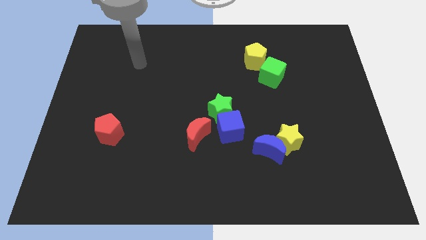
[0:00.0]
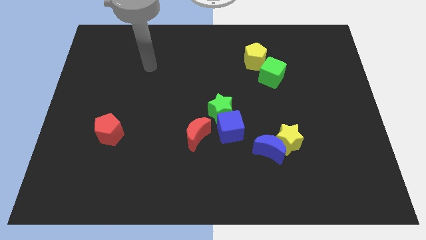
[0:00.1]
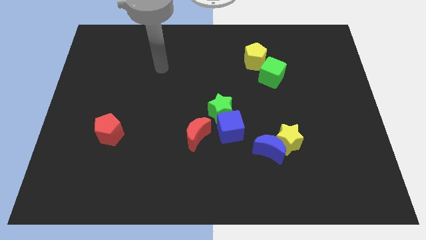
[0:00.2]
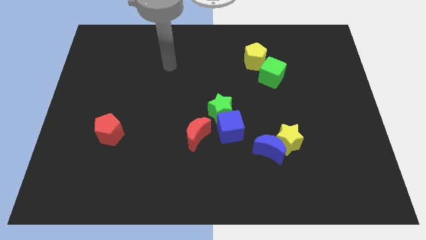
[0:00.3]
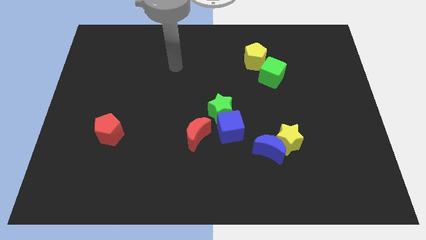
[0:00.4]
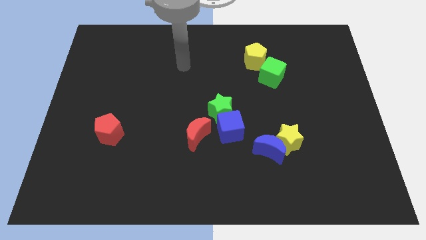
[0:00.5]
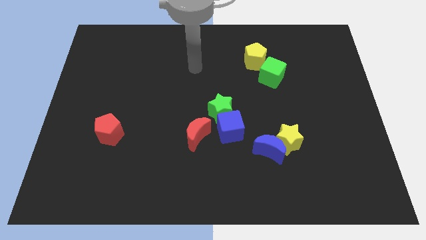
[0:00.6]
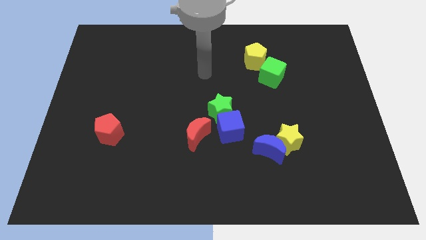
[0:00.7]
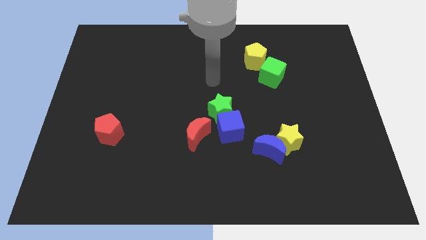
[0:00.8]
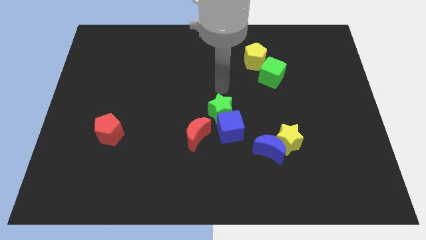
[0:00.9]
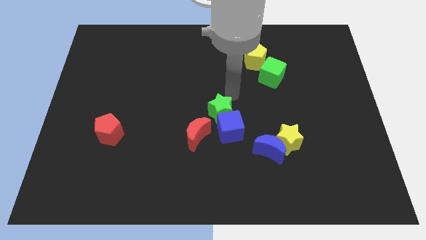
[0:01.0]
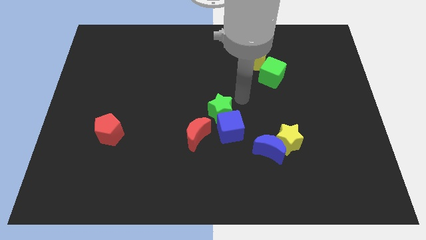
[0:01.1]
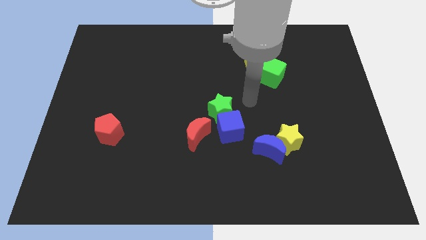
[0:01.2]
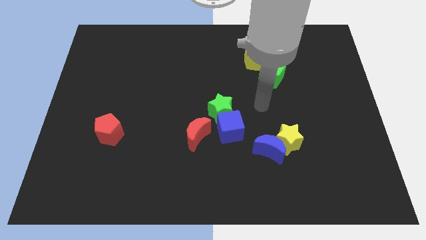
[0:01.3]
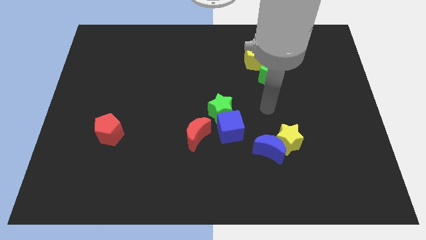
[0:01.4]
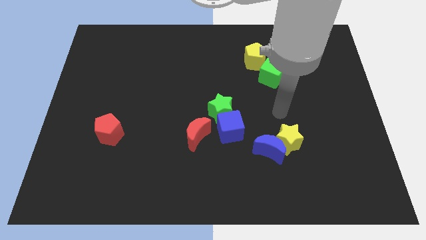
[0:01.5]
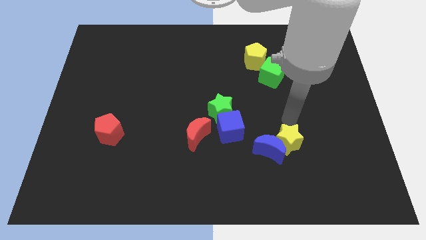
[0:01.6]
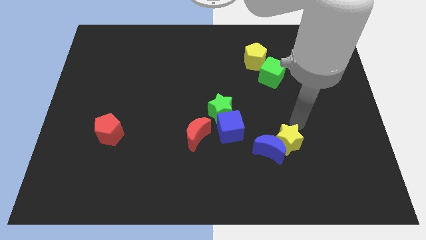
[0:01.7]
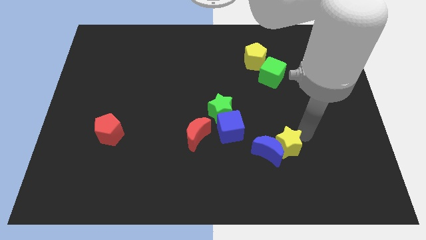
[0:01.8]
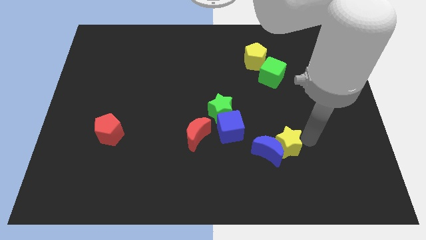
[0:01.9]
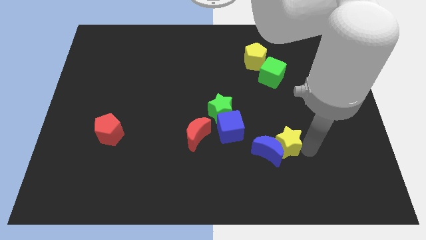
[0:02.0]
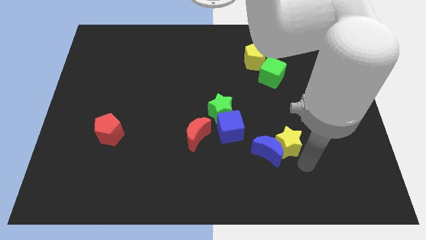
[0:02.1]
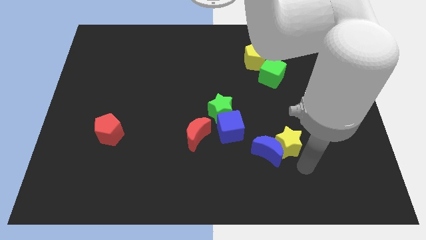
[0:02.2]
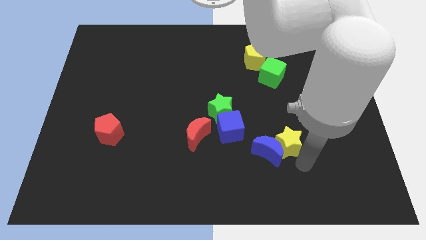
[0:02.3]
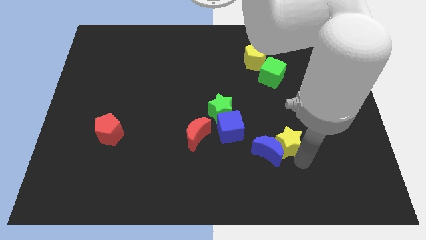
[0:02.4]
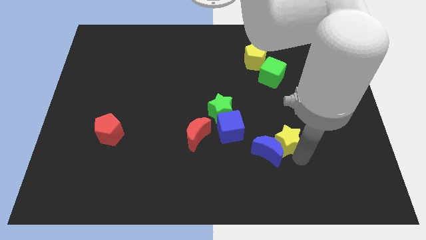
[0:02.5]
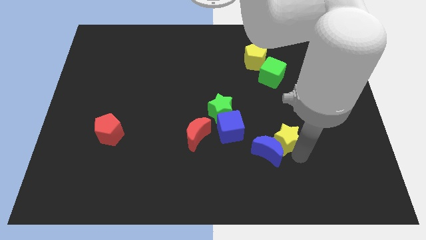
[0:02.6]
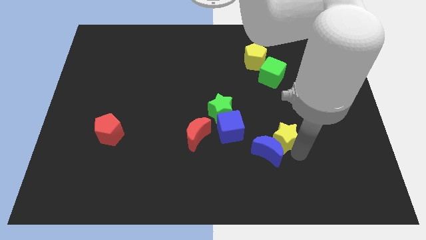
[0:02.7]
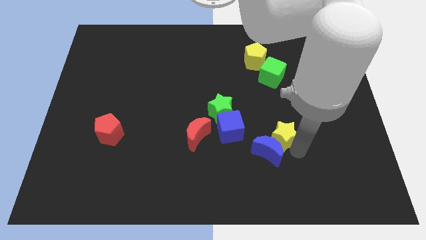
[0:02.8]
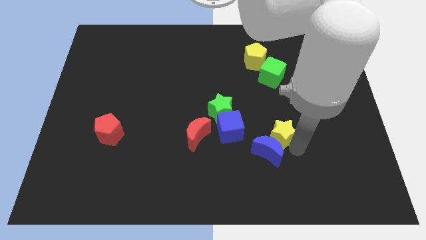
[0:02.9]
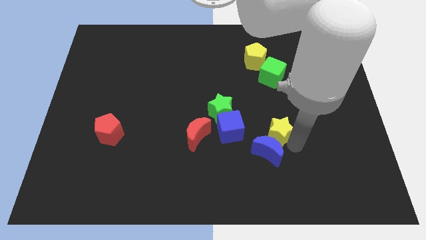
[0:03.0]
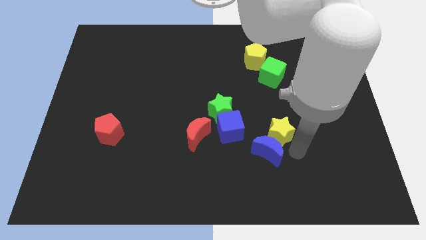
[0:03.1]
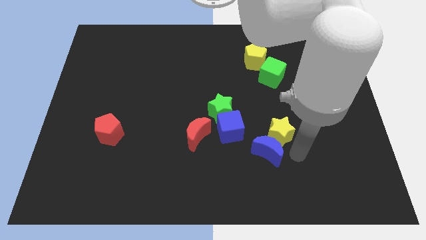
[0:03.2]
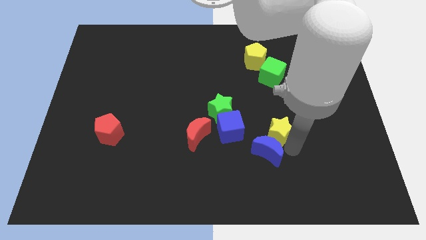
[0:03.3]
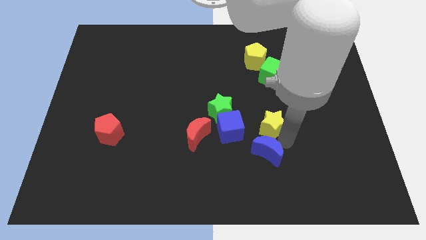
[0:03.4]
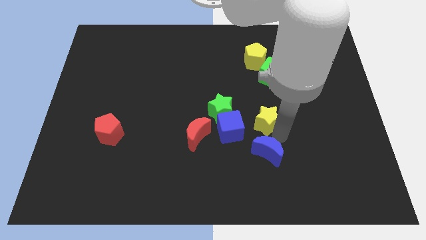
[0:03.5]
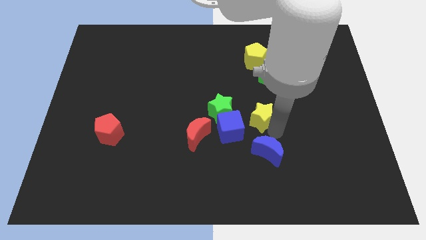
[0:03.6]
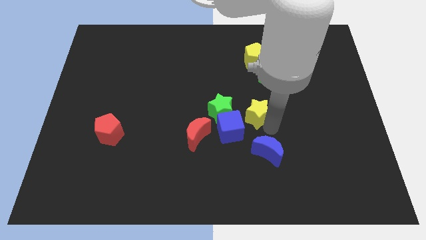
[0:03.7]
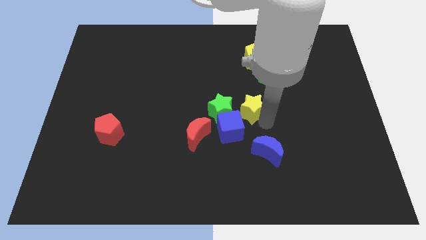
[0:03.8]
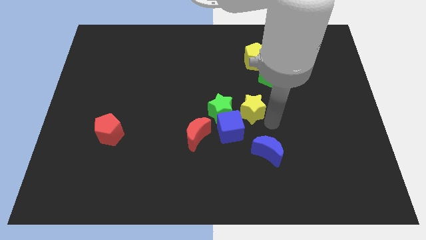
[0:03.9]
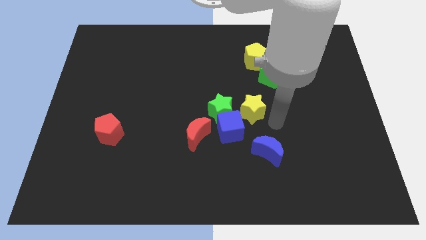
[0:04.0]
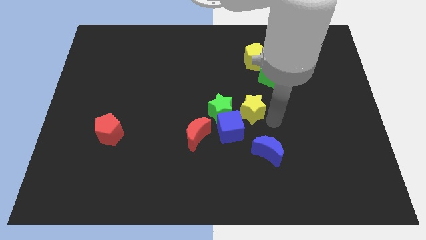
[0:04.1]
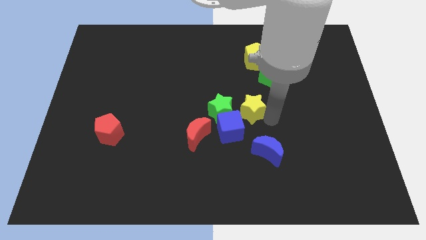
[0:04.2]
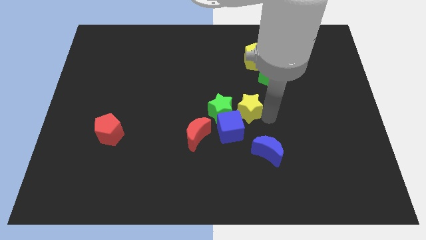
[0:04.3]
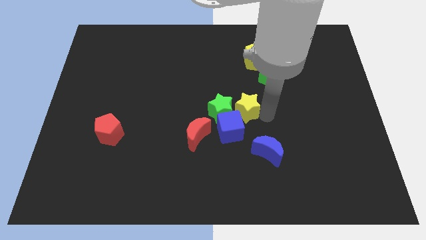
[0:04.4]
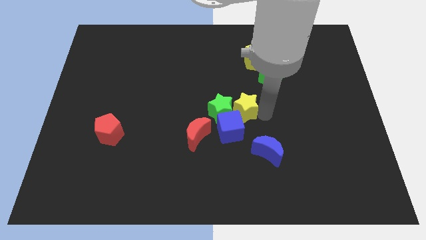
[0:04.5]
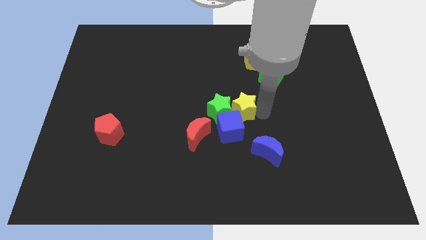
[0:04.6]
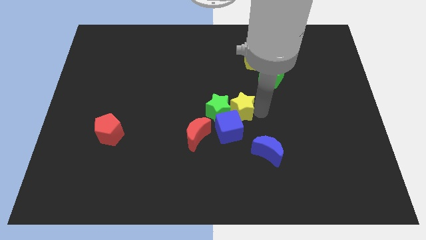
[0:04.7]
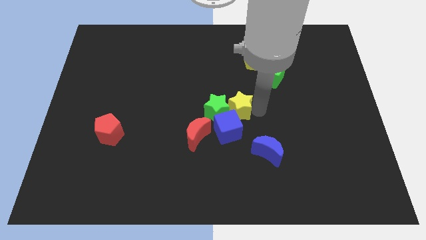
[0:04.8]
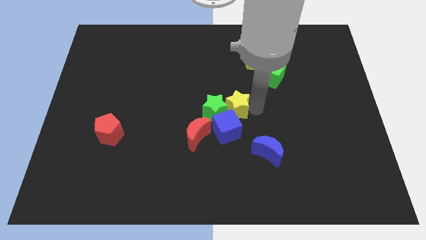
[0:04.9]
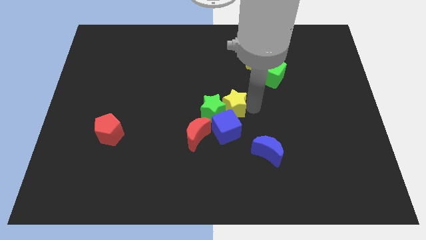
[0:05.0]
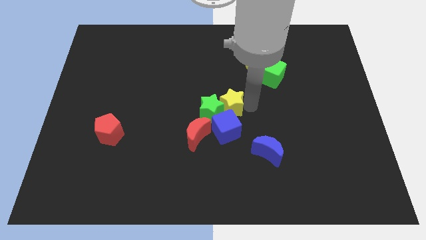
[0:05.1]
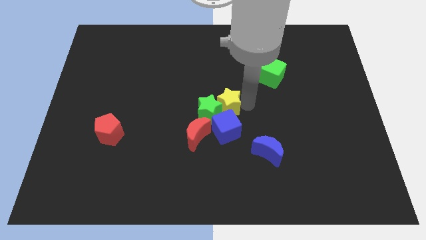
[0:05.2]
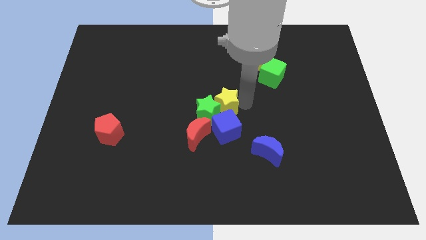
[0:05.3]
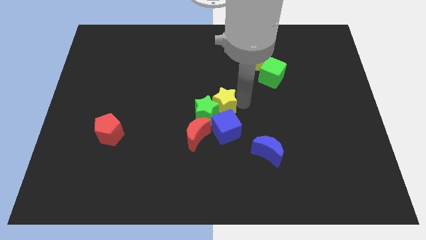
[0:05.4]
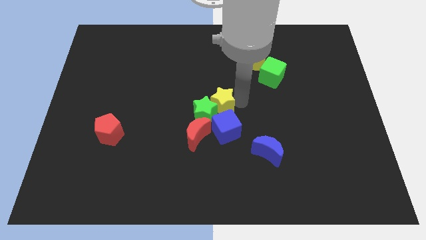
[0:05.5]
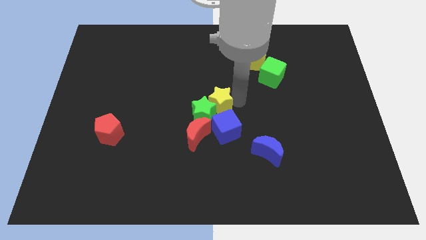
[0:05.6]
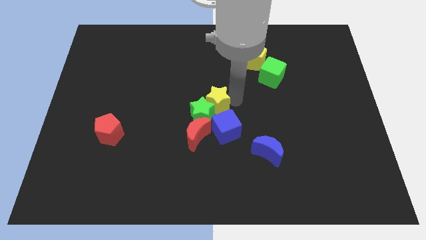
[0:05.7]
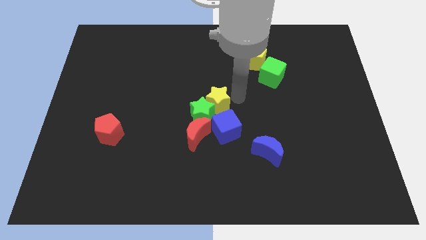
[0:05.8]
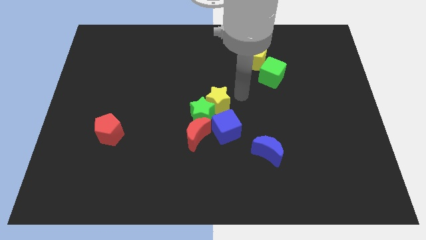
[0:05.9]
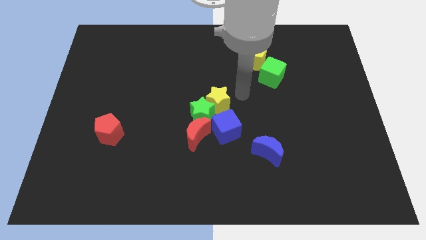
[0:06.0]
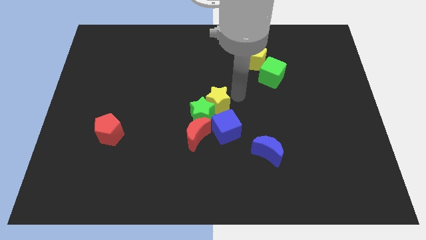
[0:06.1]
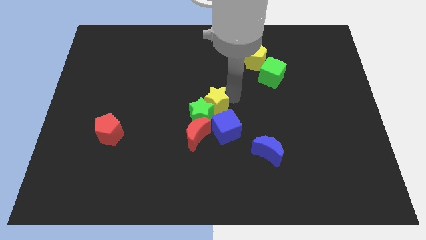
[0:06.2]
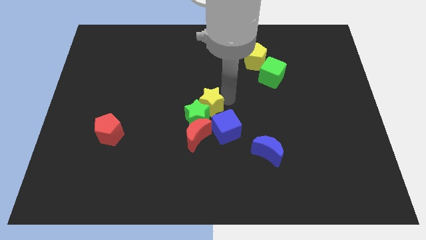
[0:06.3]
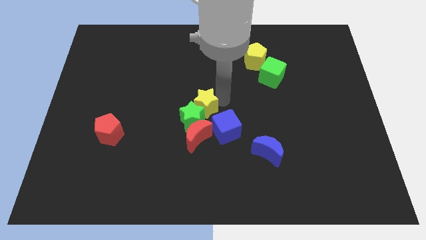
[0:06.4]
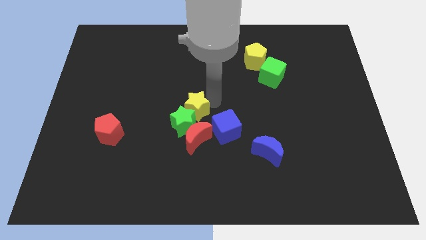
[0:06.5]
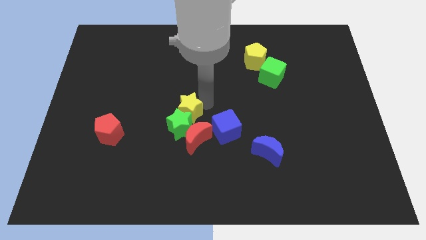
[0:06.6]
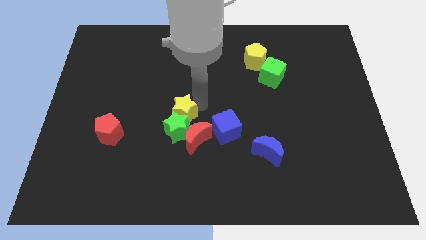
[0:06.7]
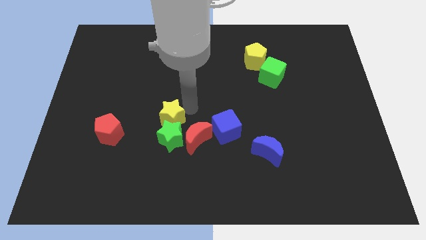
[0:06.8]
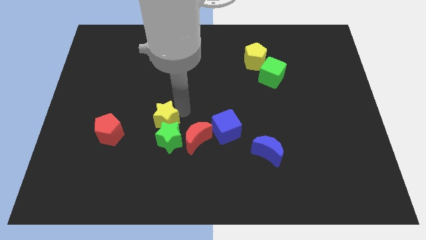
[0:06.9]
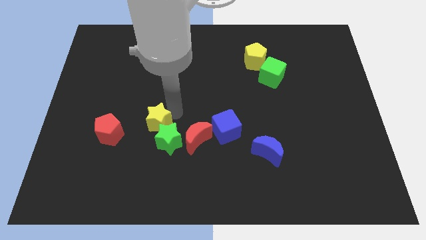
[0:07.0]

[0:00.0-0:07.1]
slide the yellow star just left of the red moon
